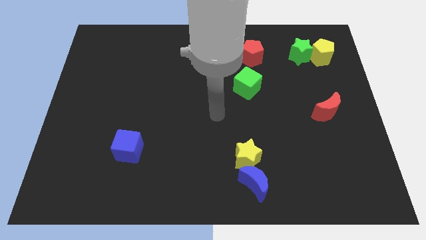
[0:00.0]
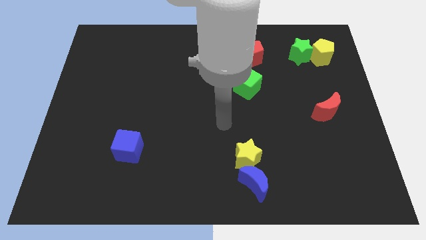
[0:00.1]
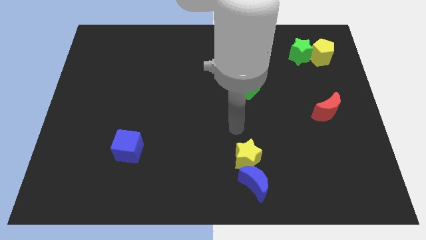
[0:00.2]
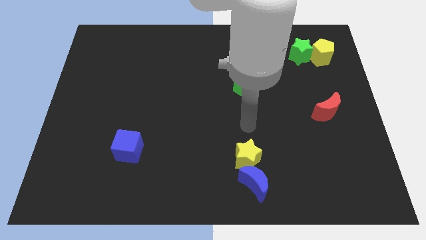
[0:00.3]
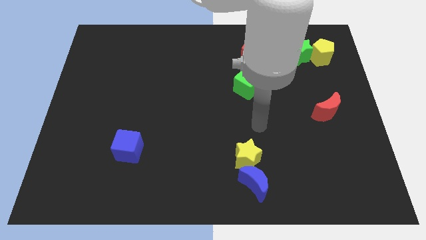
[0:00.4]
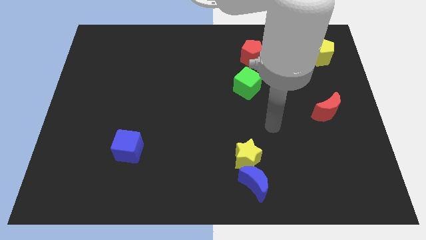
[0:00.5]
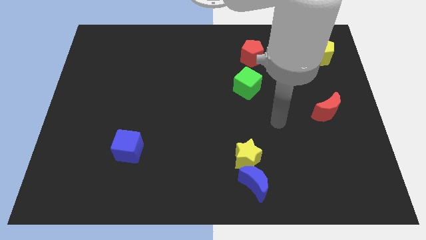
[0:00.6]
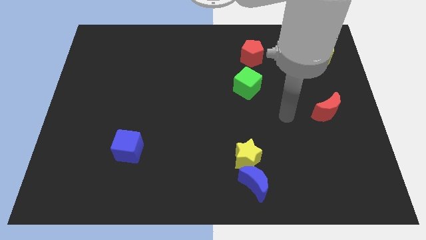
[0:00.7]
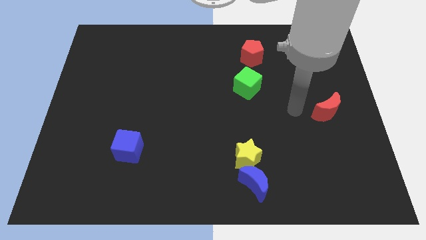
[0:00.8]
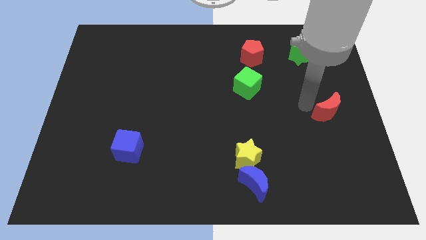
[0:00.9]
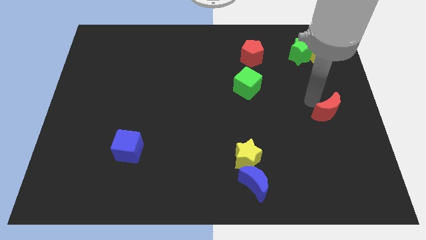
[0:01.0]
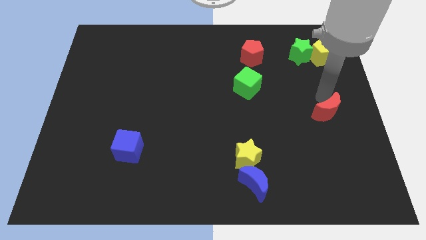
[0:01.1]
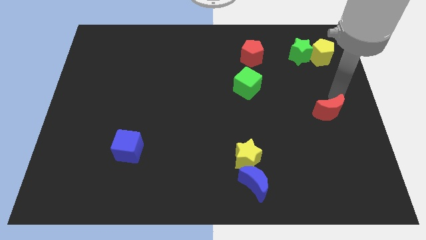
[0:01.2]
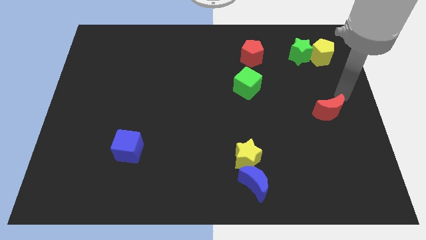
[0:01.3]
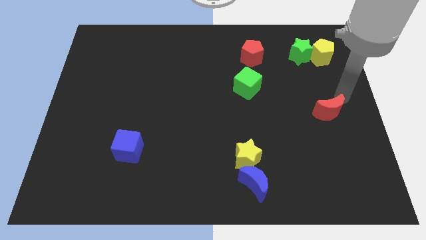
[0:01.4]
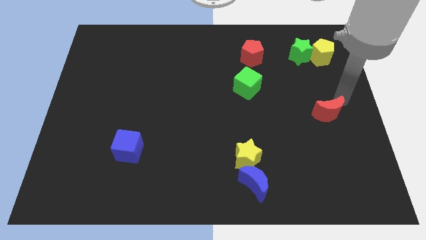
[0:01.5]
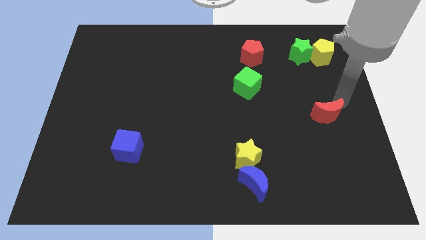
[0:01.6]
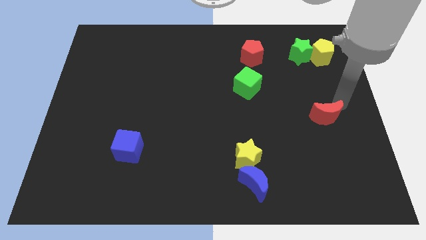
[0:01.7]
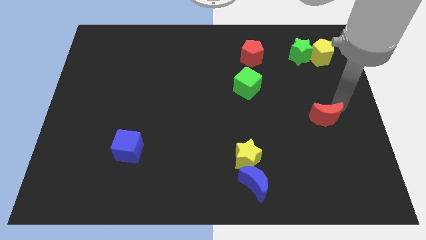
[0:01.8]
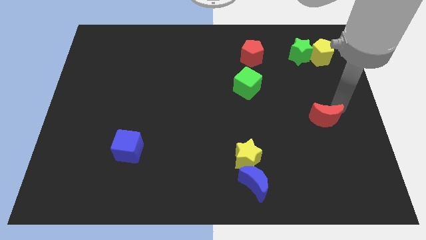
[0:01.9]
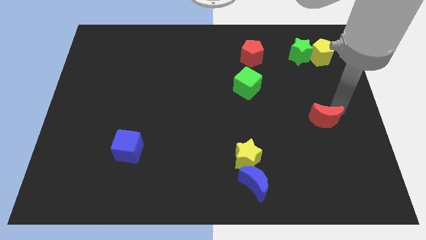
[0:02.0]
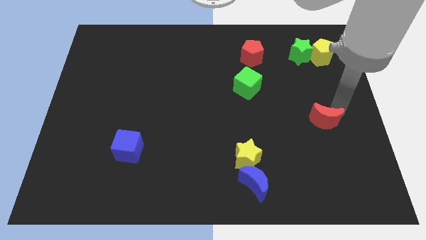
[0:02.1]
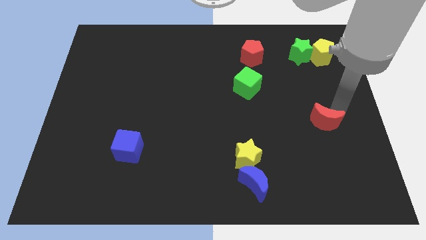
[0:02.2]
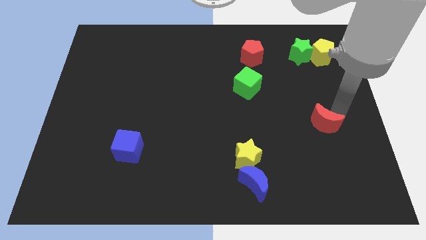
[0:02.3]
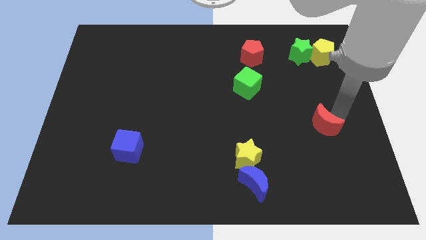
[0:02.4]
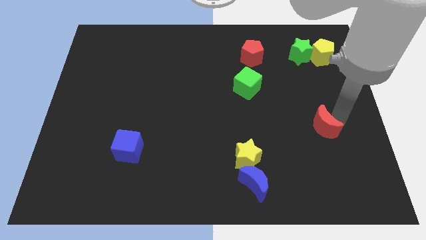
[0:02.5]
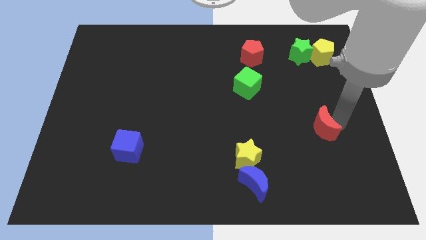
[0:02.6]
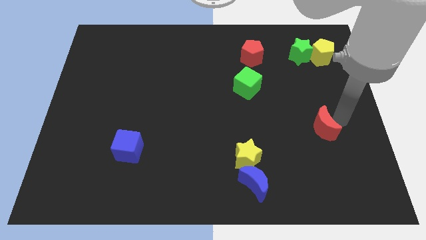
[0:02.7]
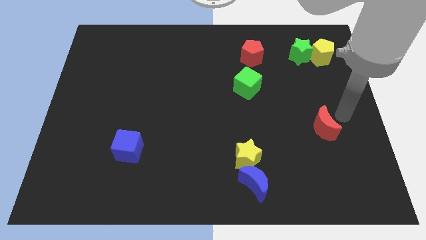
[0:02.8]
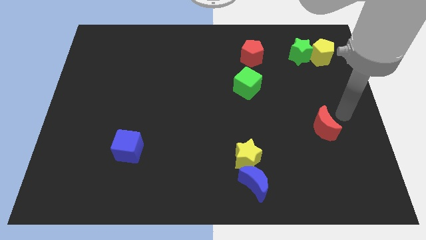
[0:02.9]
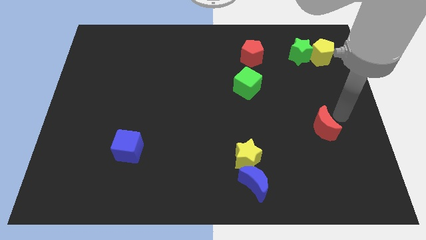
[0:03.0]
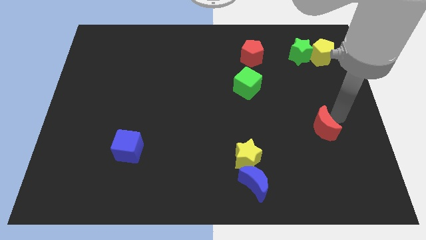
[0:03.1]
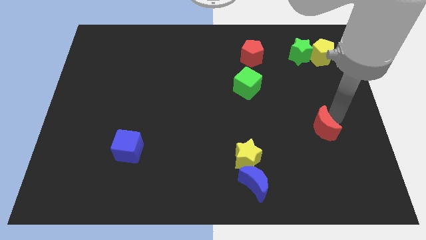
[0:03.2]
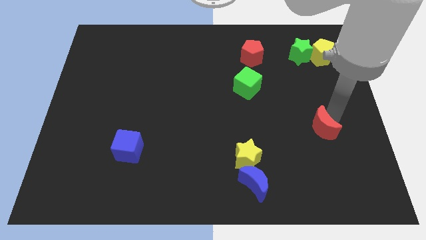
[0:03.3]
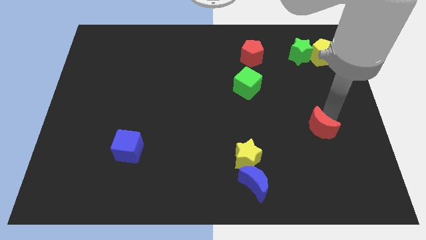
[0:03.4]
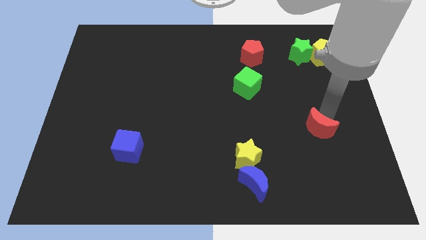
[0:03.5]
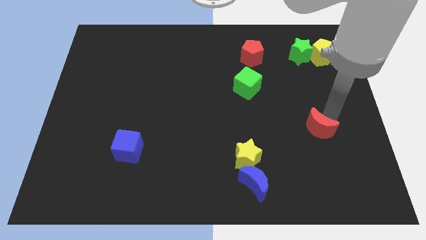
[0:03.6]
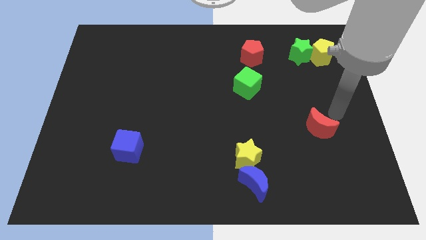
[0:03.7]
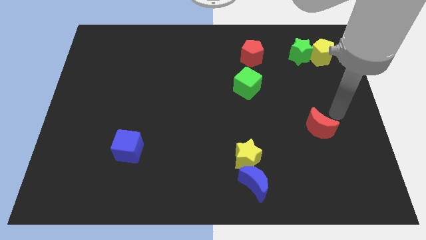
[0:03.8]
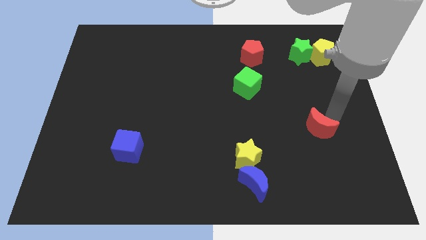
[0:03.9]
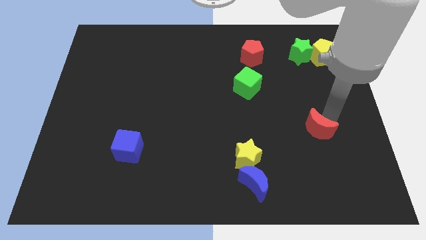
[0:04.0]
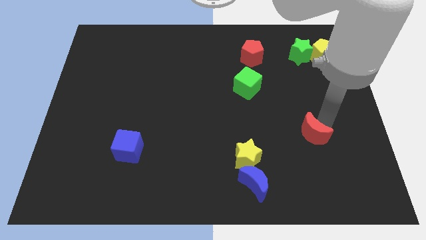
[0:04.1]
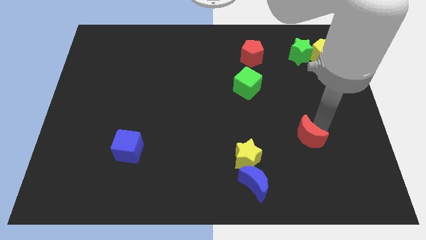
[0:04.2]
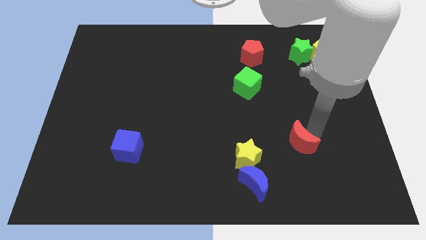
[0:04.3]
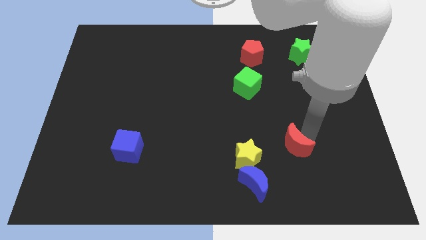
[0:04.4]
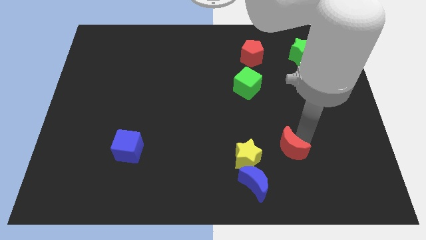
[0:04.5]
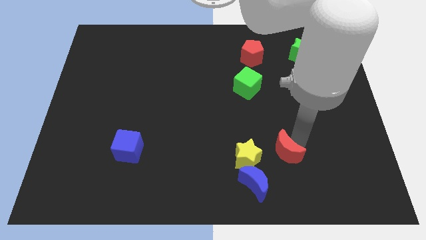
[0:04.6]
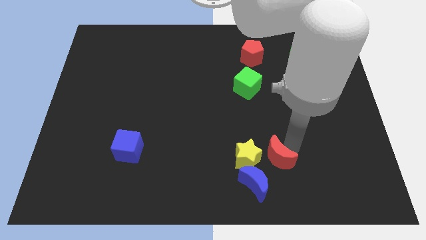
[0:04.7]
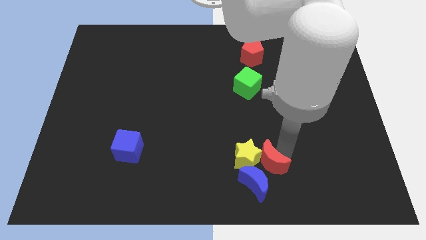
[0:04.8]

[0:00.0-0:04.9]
move the red moon to the blue moon

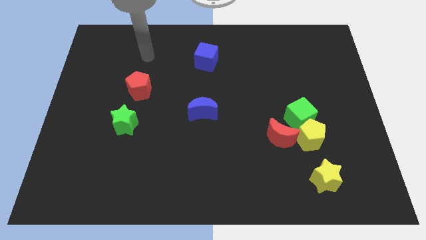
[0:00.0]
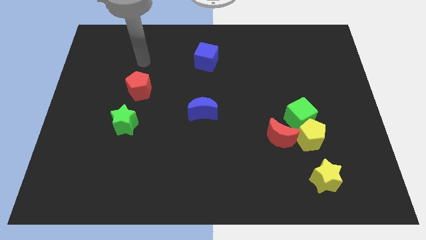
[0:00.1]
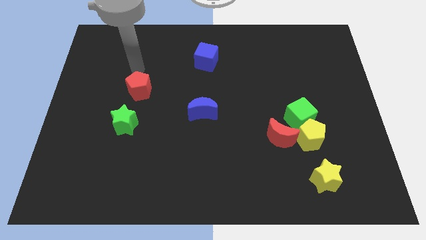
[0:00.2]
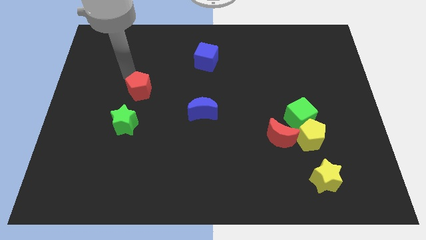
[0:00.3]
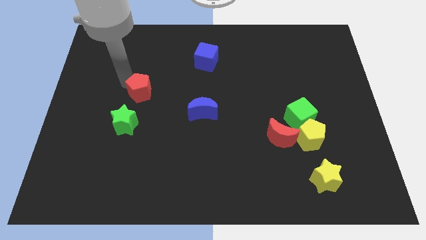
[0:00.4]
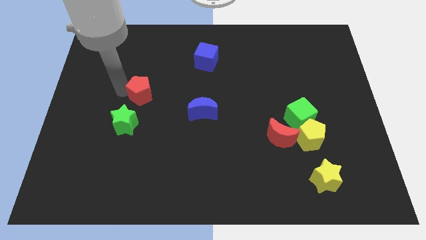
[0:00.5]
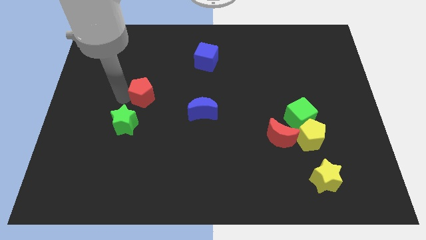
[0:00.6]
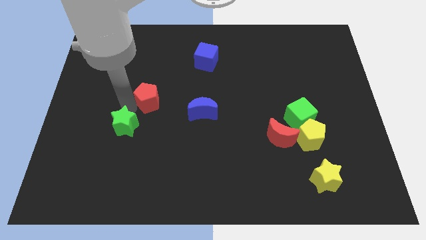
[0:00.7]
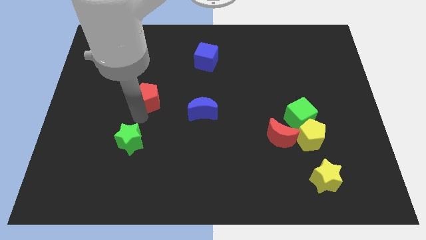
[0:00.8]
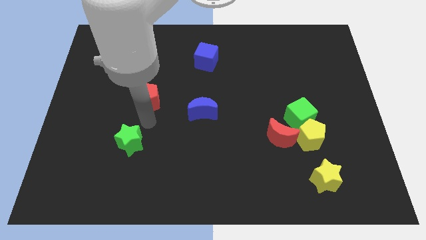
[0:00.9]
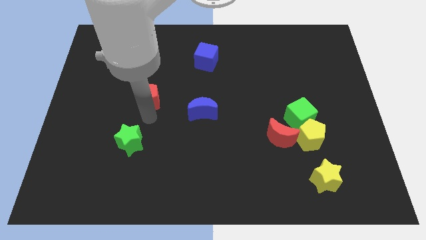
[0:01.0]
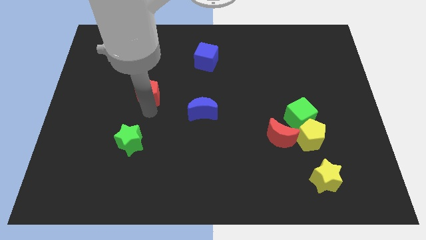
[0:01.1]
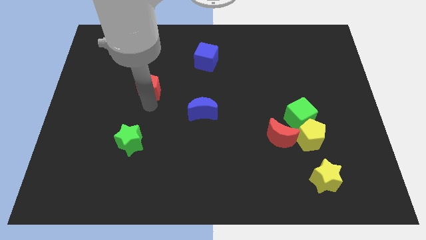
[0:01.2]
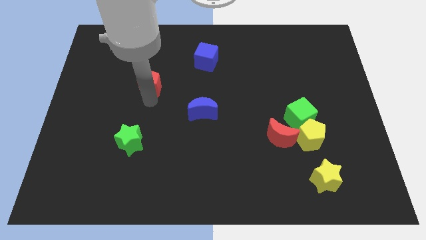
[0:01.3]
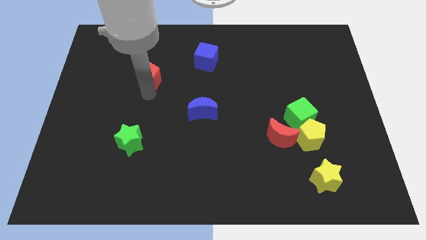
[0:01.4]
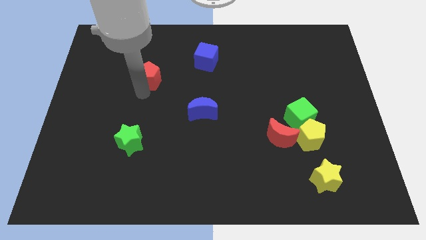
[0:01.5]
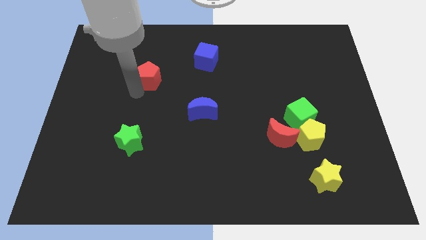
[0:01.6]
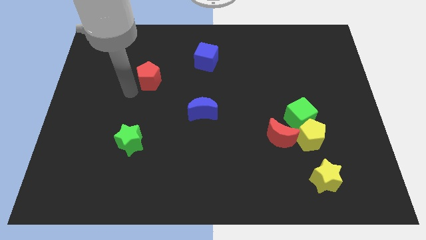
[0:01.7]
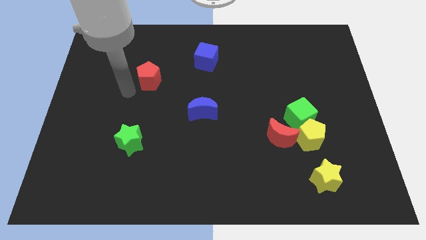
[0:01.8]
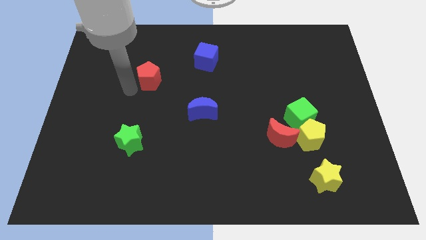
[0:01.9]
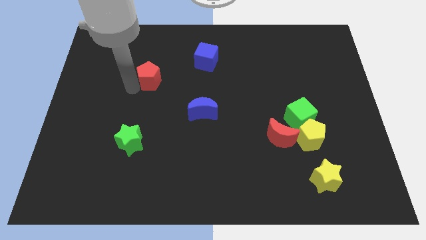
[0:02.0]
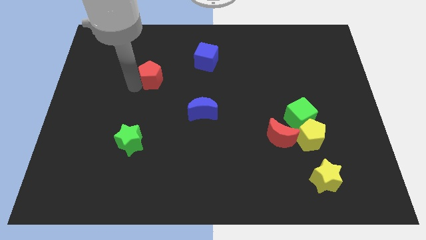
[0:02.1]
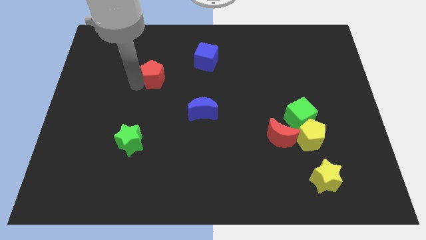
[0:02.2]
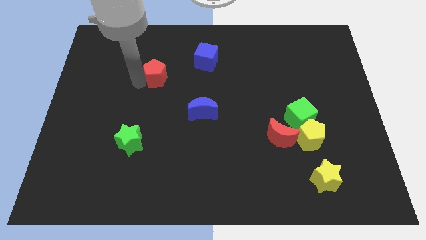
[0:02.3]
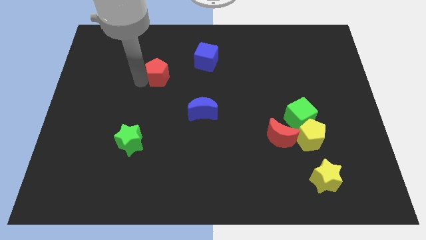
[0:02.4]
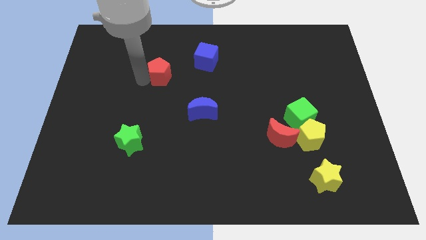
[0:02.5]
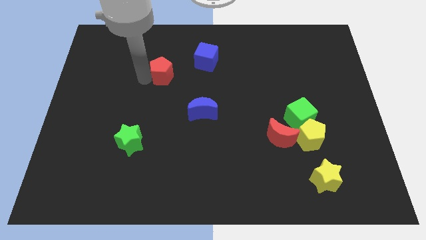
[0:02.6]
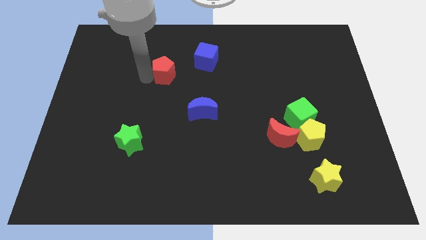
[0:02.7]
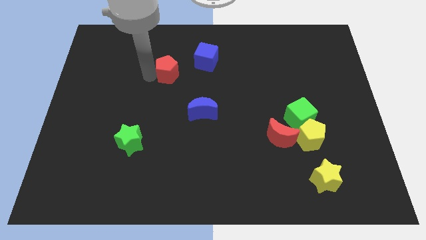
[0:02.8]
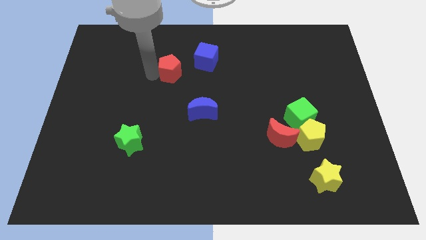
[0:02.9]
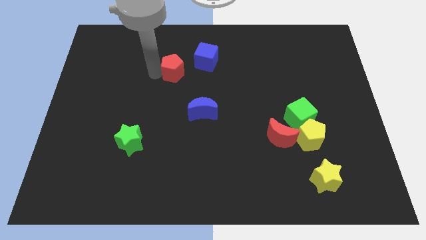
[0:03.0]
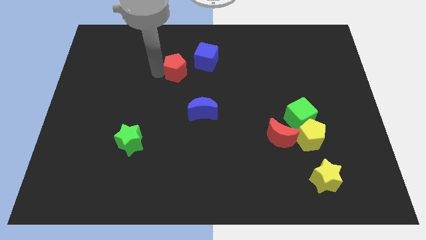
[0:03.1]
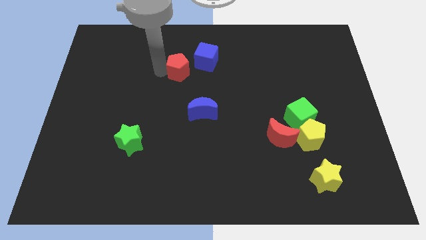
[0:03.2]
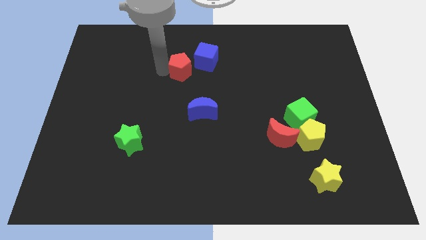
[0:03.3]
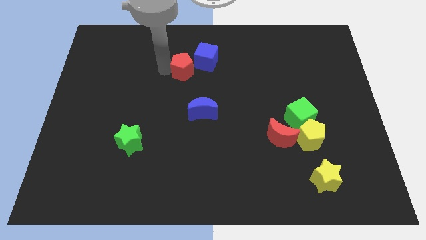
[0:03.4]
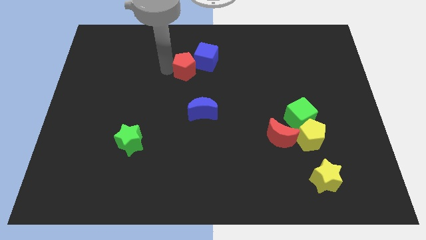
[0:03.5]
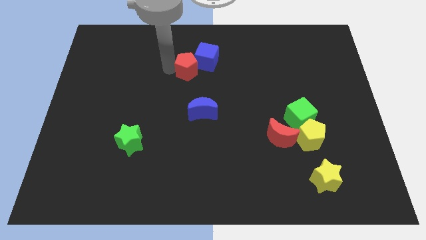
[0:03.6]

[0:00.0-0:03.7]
slide the red pentagon next to the blue cube
